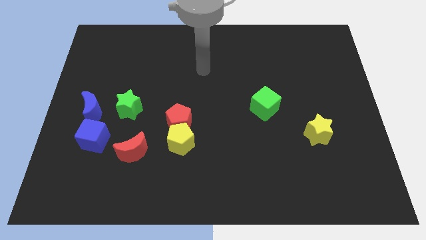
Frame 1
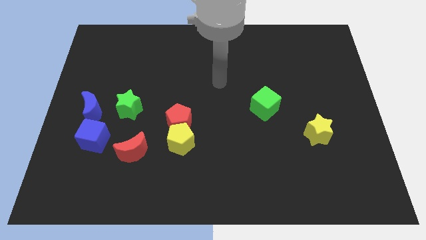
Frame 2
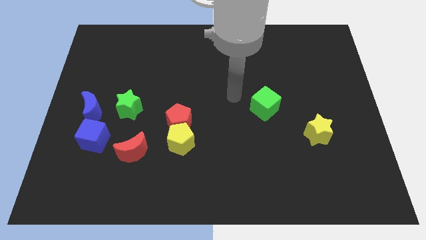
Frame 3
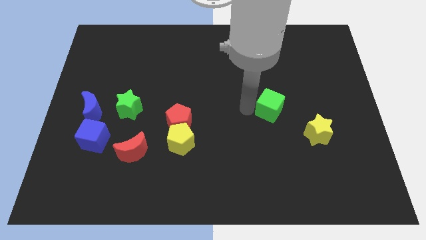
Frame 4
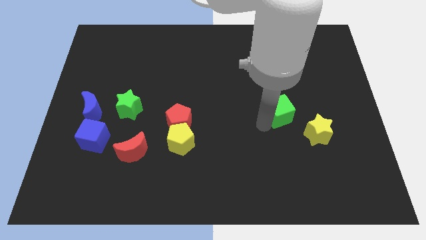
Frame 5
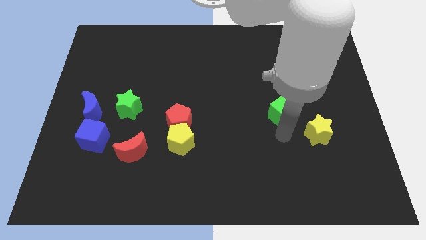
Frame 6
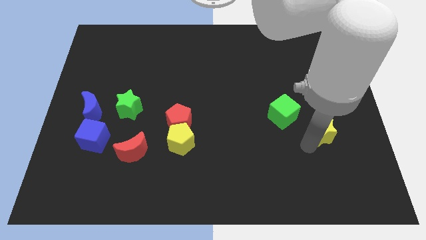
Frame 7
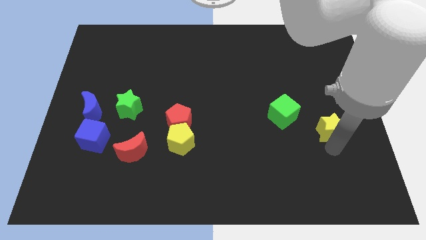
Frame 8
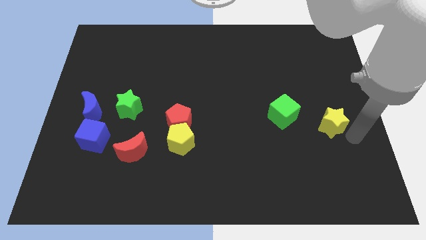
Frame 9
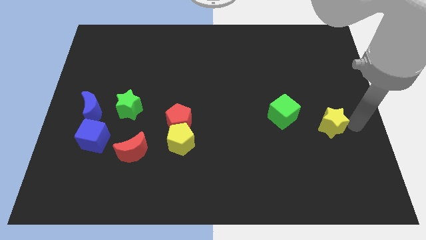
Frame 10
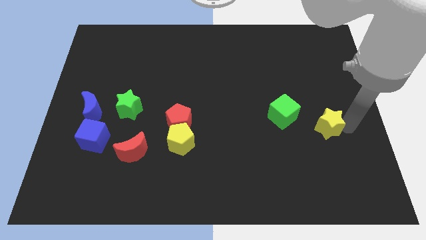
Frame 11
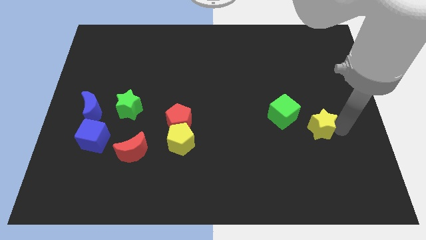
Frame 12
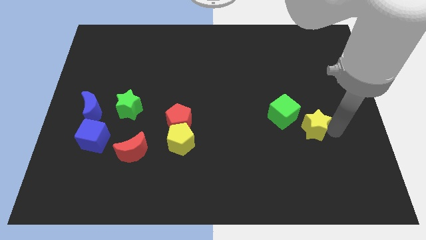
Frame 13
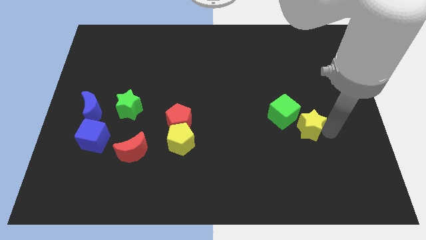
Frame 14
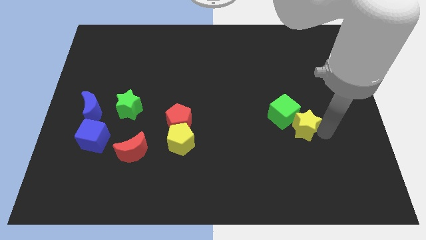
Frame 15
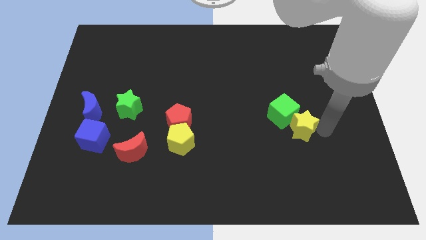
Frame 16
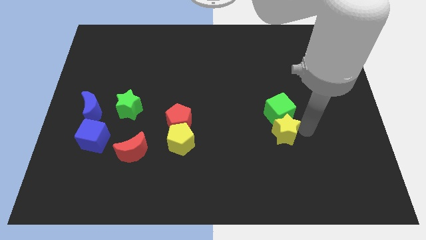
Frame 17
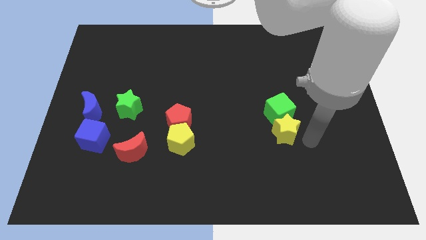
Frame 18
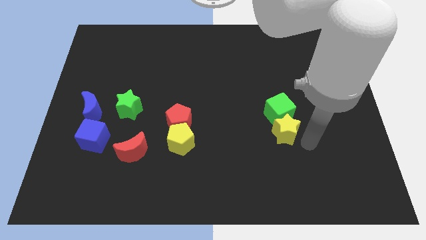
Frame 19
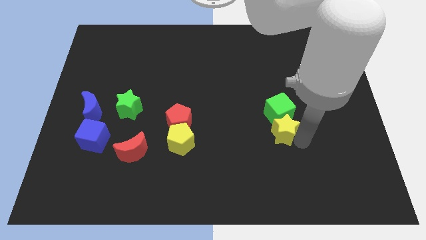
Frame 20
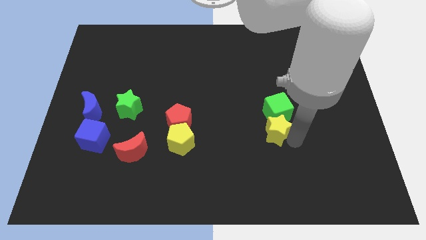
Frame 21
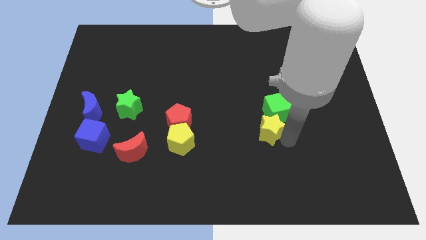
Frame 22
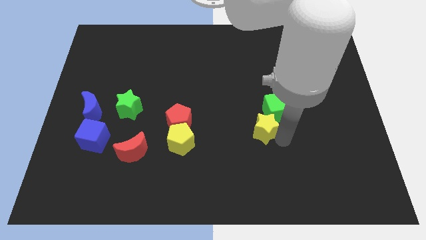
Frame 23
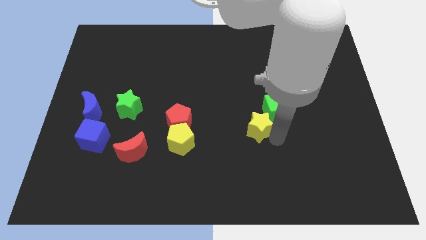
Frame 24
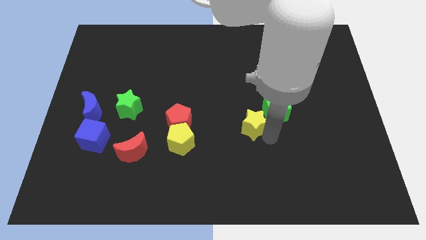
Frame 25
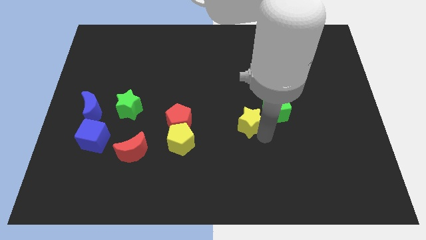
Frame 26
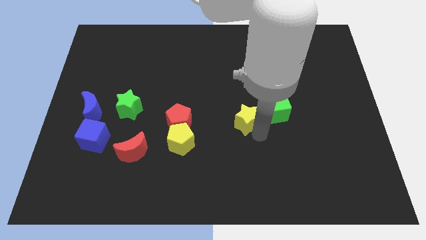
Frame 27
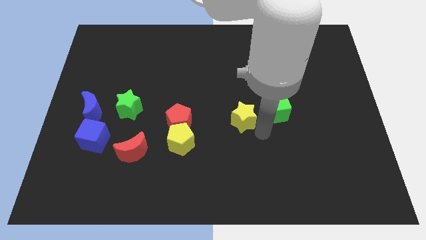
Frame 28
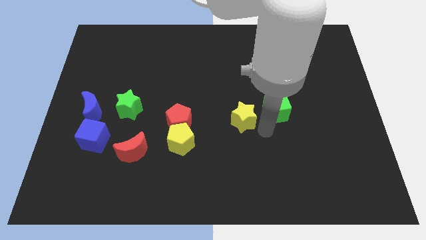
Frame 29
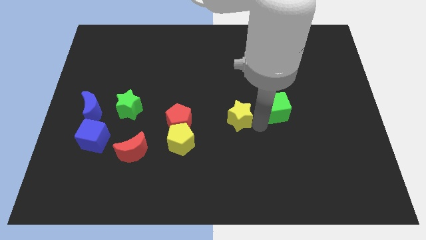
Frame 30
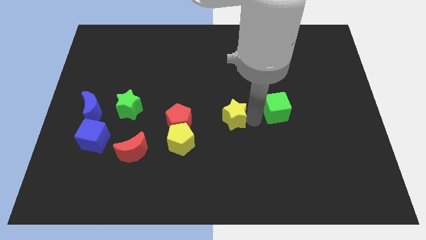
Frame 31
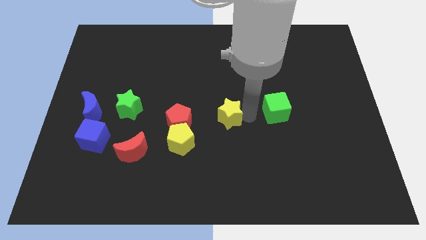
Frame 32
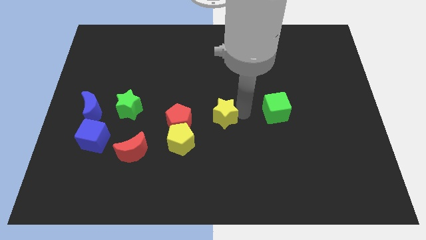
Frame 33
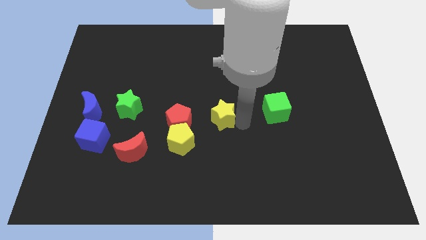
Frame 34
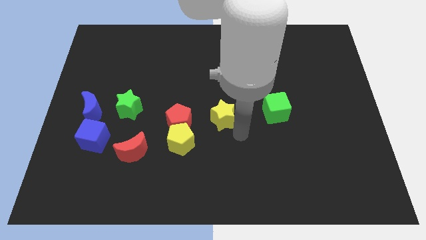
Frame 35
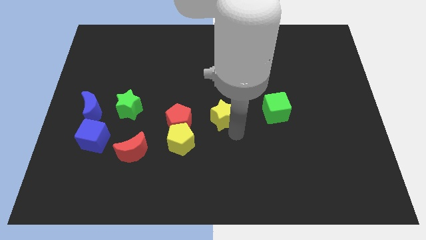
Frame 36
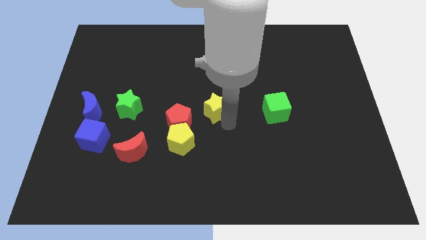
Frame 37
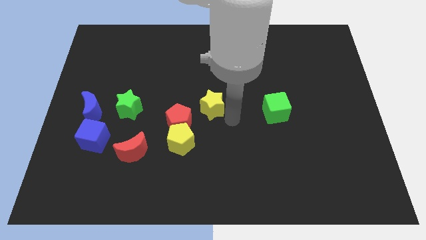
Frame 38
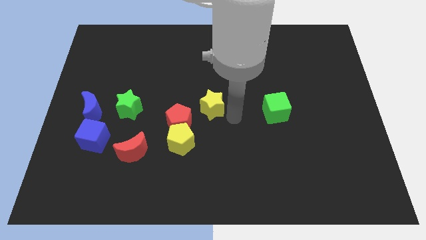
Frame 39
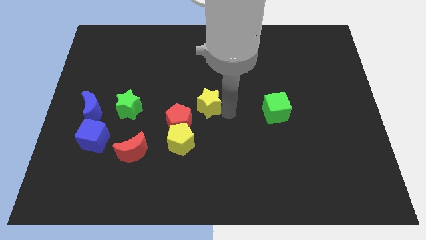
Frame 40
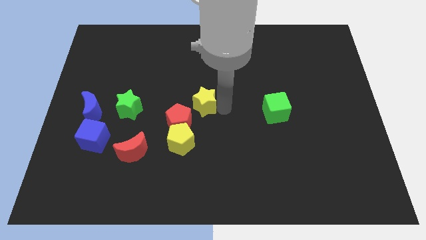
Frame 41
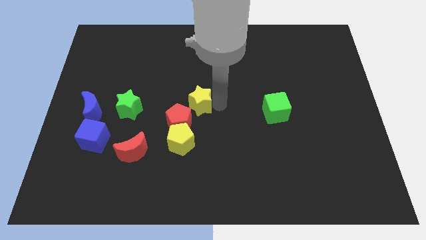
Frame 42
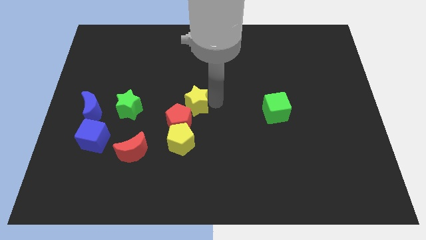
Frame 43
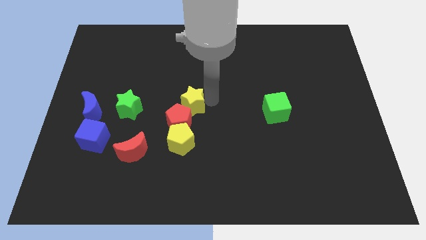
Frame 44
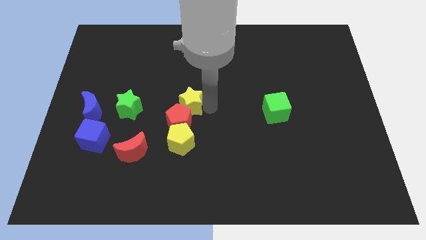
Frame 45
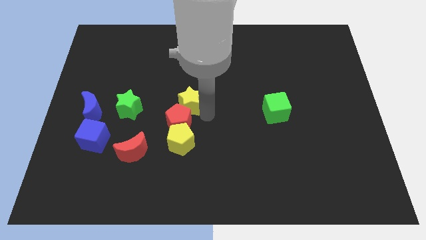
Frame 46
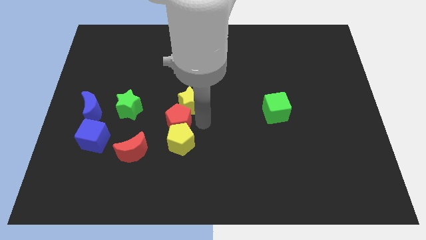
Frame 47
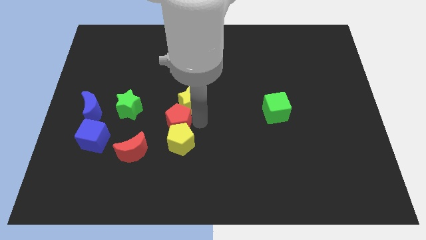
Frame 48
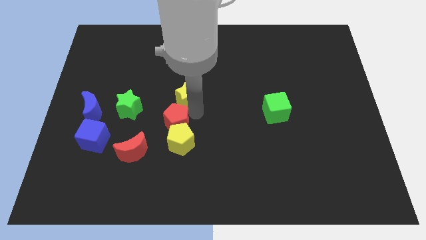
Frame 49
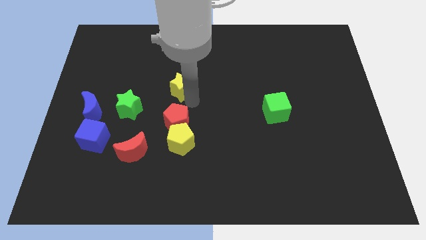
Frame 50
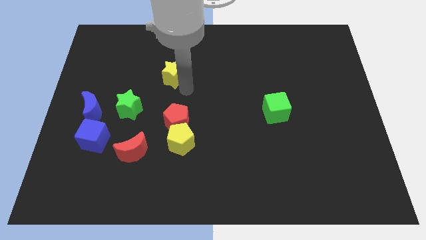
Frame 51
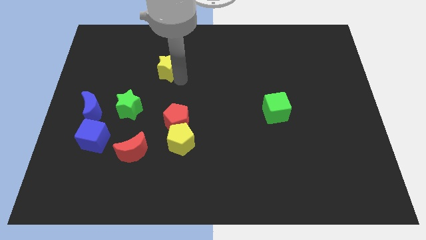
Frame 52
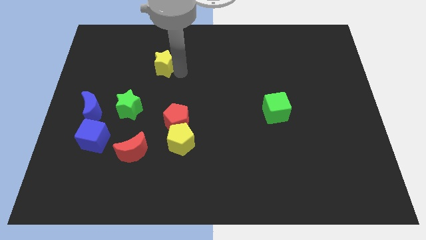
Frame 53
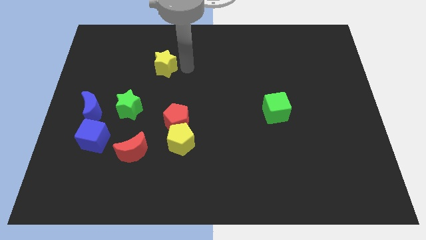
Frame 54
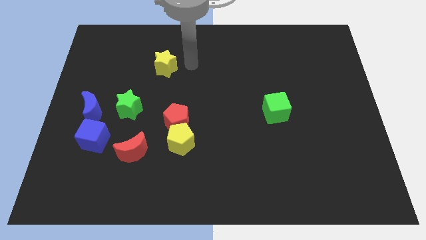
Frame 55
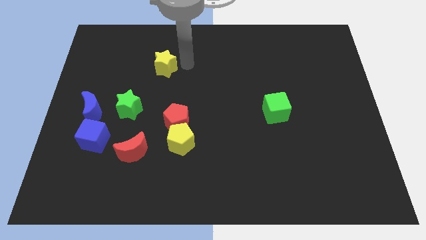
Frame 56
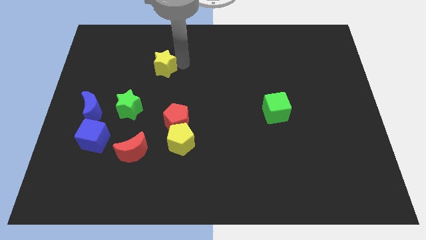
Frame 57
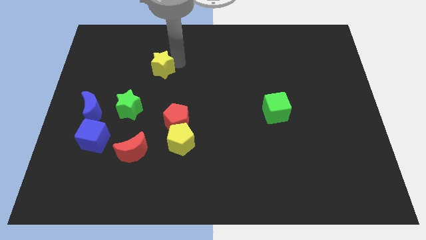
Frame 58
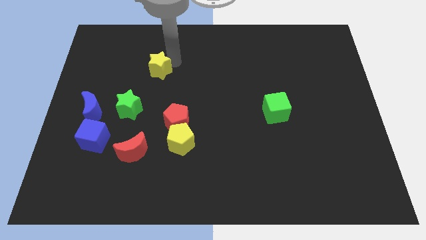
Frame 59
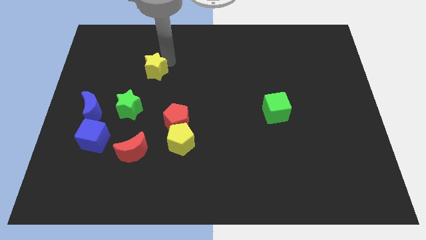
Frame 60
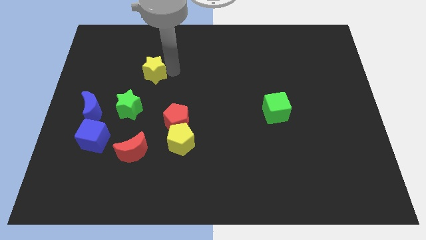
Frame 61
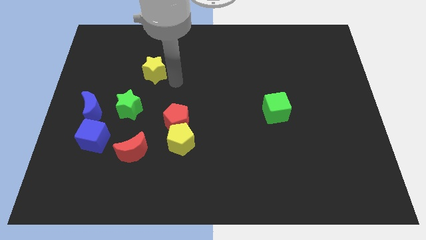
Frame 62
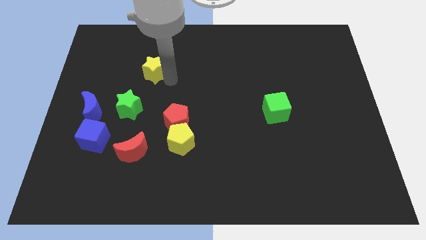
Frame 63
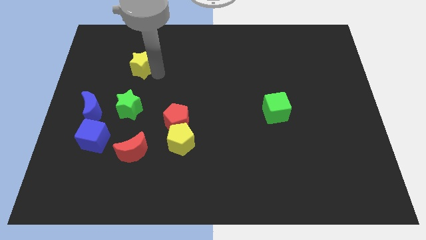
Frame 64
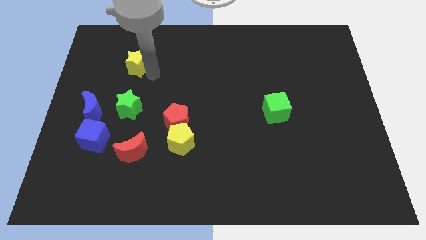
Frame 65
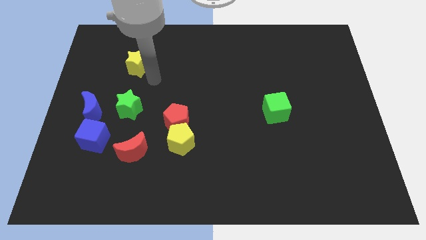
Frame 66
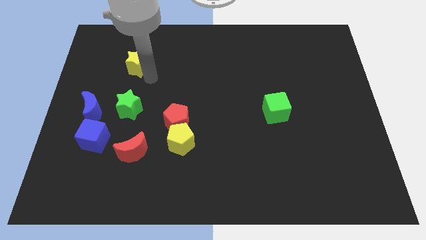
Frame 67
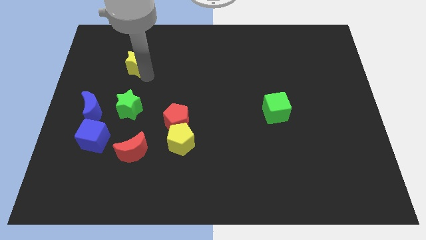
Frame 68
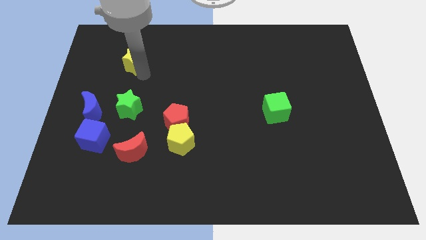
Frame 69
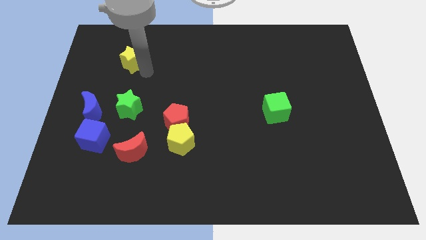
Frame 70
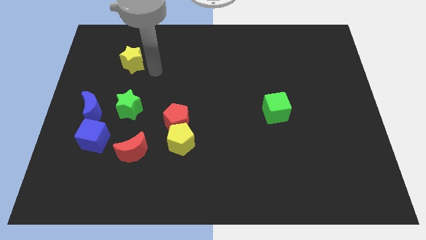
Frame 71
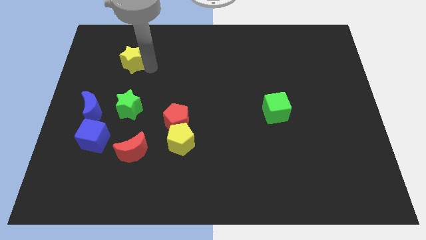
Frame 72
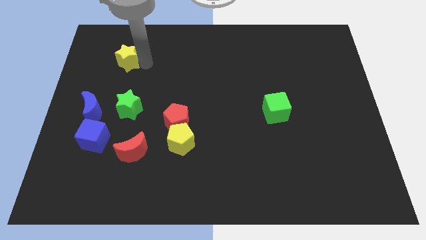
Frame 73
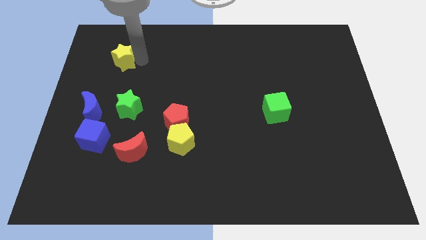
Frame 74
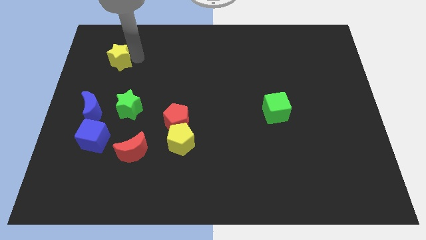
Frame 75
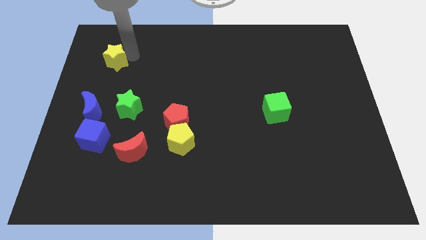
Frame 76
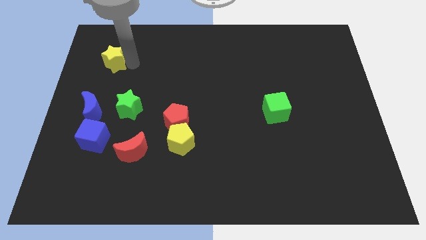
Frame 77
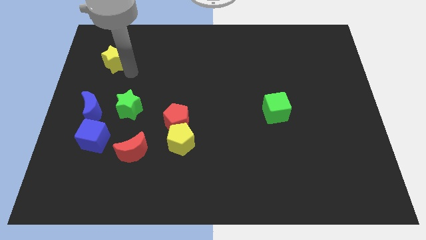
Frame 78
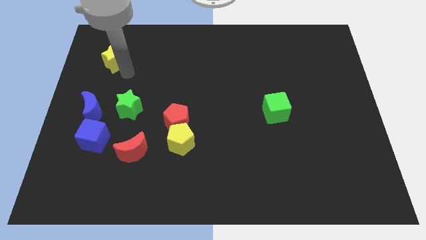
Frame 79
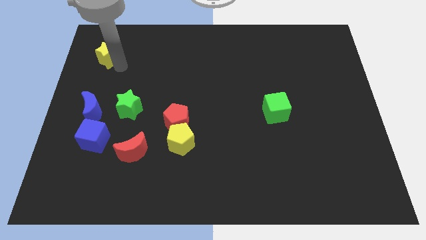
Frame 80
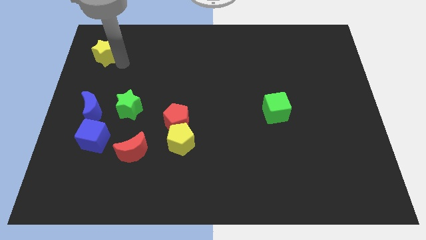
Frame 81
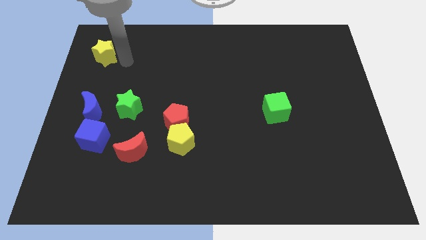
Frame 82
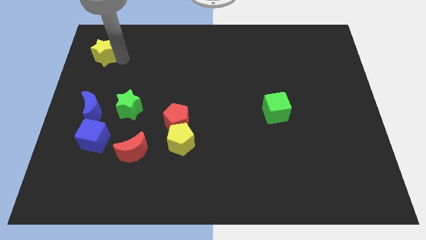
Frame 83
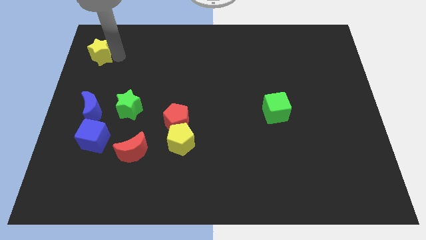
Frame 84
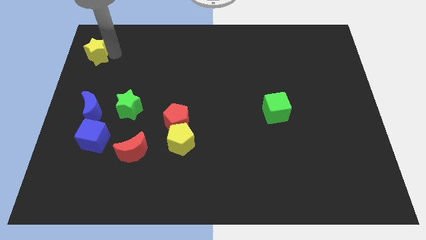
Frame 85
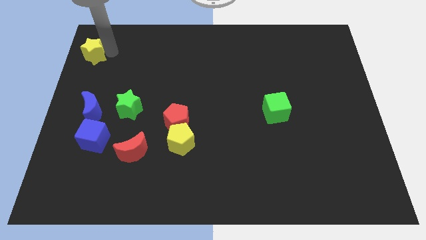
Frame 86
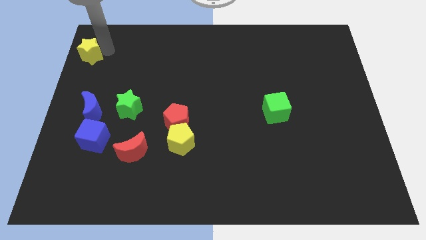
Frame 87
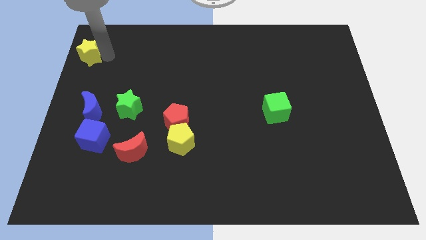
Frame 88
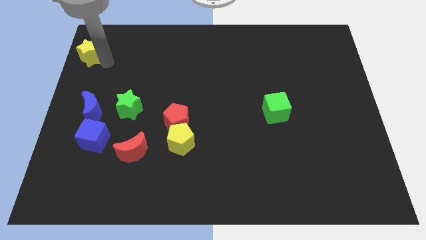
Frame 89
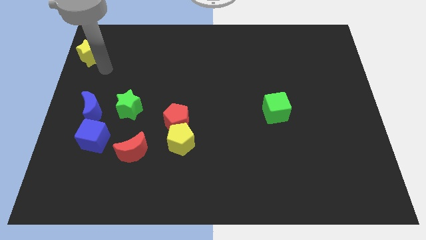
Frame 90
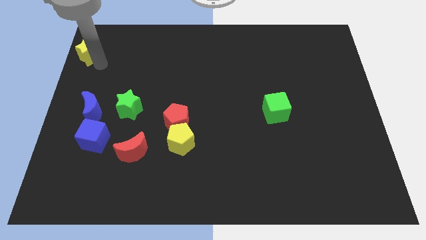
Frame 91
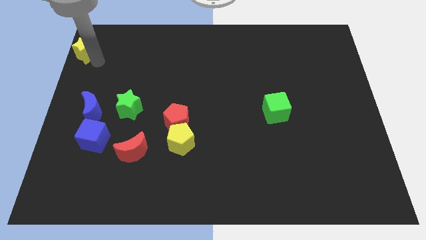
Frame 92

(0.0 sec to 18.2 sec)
push the yellow star to the upper left corner
